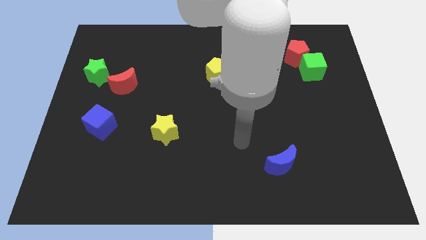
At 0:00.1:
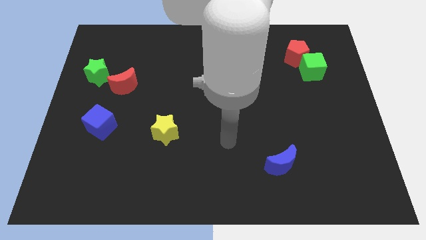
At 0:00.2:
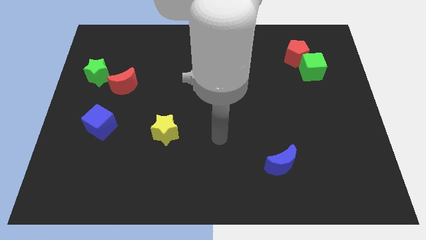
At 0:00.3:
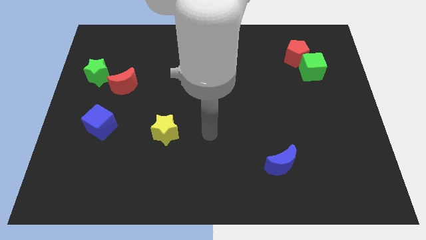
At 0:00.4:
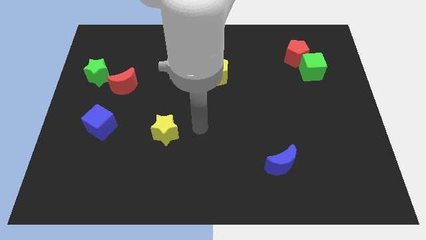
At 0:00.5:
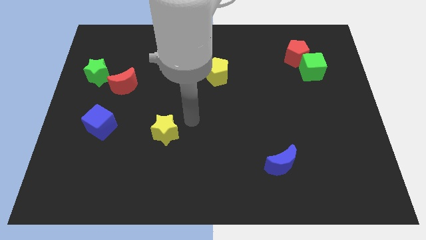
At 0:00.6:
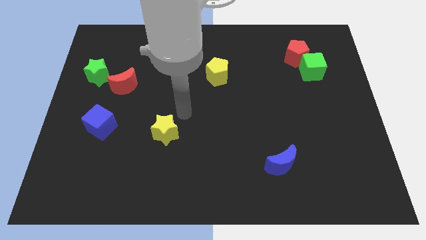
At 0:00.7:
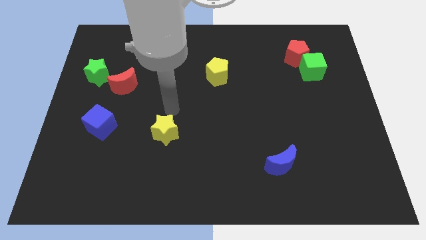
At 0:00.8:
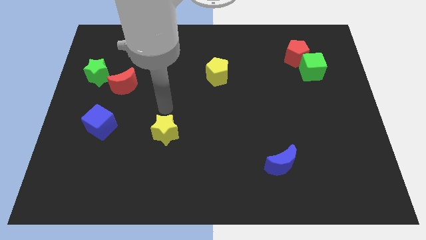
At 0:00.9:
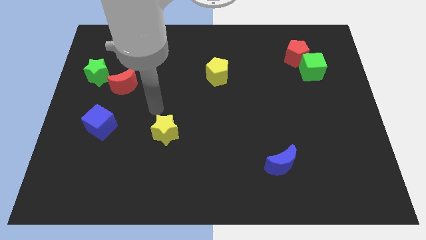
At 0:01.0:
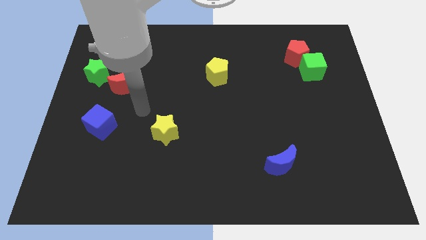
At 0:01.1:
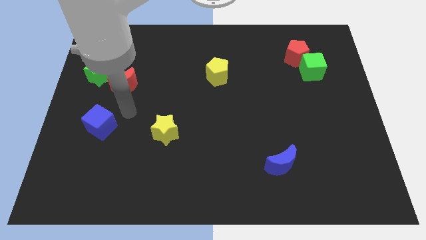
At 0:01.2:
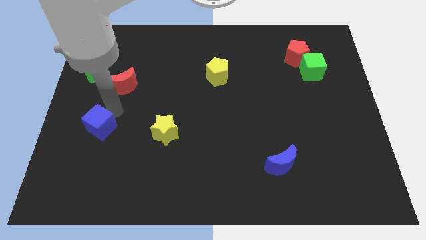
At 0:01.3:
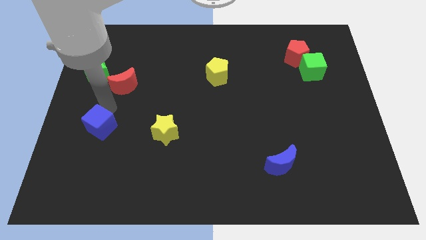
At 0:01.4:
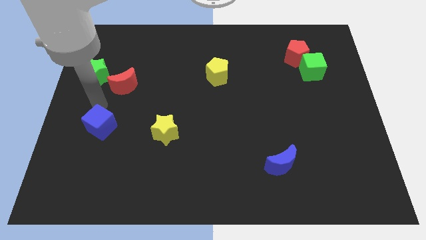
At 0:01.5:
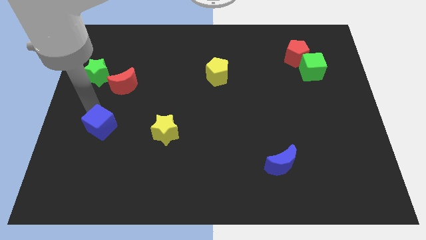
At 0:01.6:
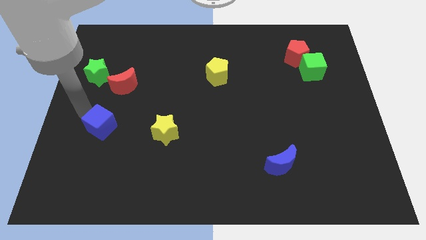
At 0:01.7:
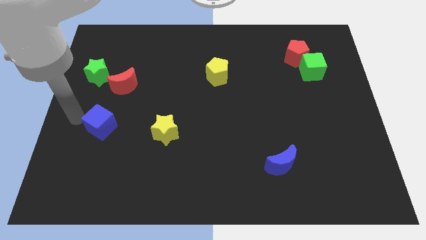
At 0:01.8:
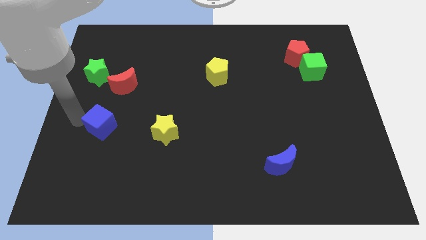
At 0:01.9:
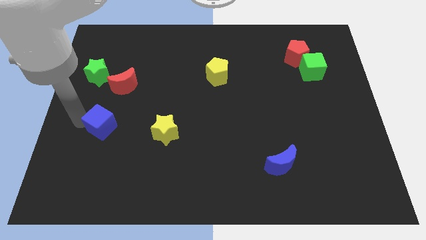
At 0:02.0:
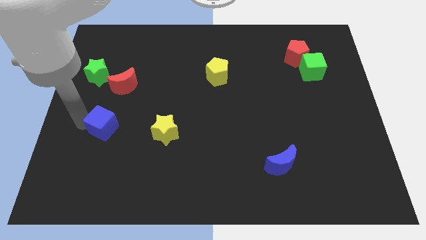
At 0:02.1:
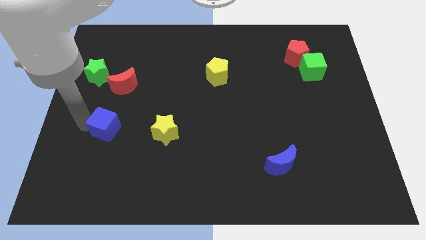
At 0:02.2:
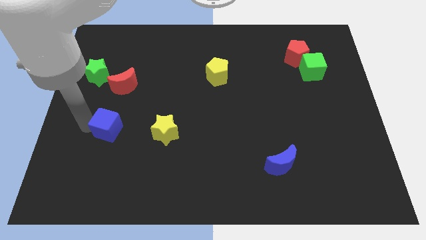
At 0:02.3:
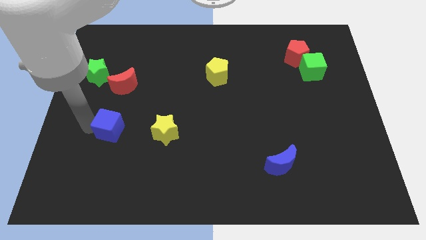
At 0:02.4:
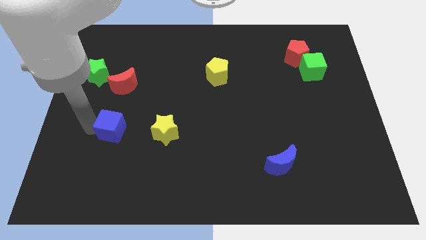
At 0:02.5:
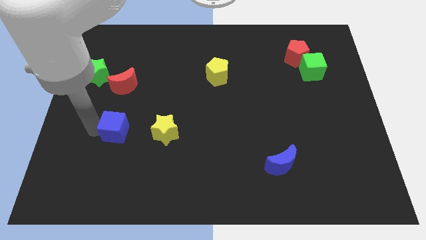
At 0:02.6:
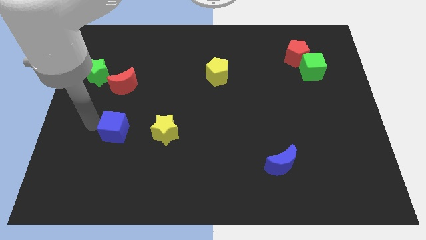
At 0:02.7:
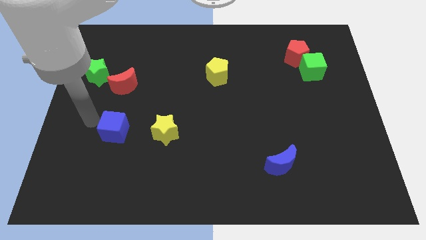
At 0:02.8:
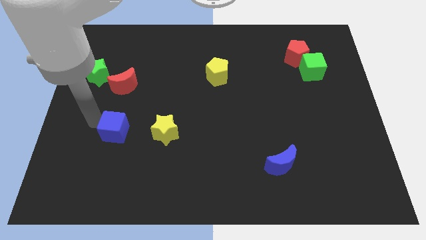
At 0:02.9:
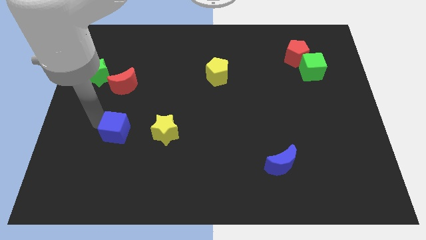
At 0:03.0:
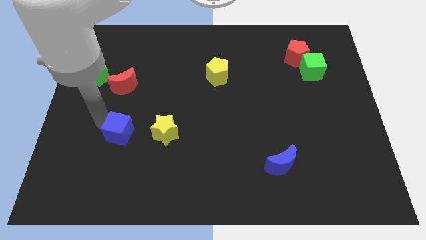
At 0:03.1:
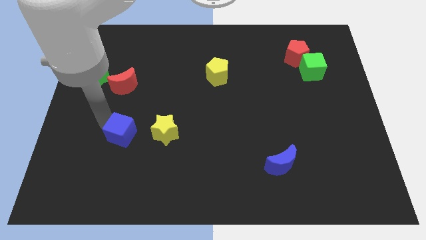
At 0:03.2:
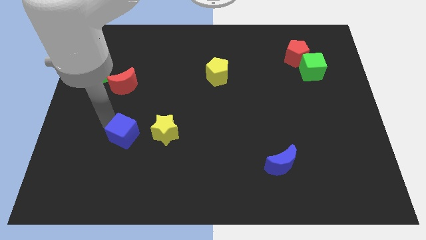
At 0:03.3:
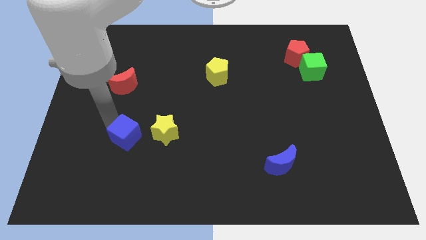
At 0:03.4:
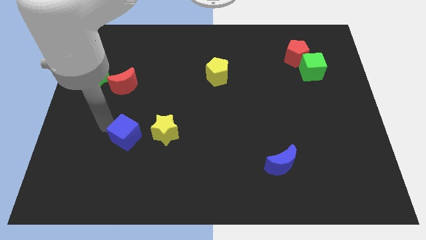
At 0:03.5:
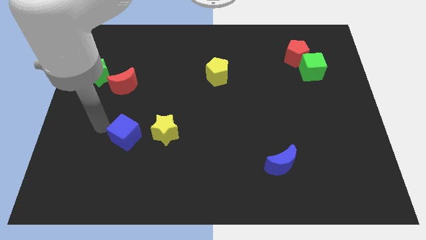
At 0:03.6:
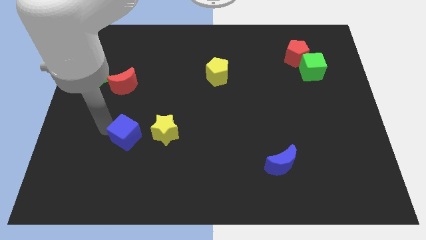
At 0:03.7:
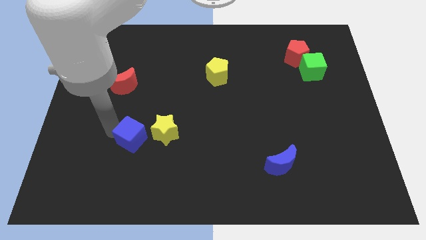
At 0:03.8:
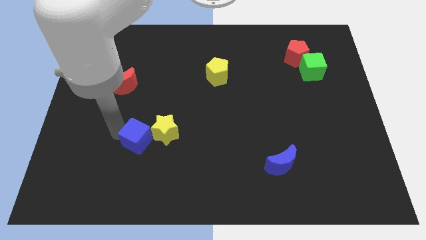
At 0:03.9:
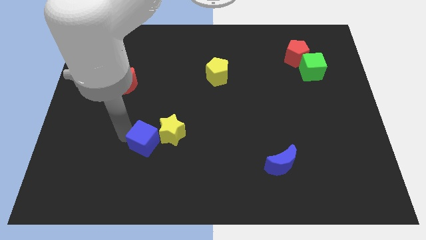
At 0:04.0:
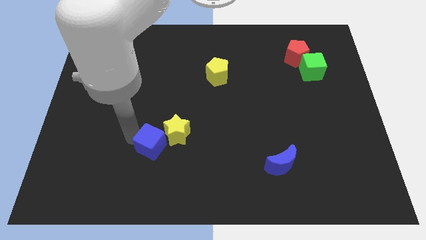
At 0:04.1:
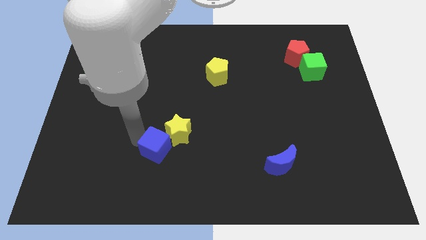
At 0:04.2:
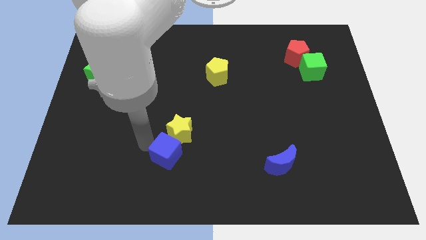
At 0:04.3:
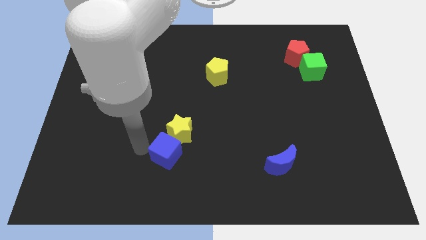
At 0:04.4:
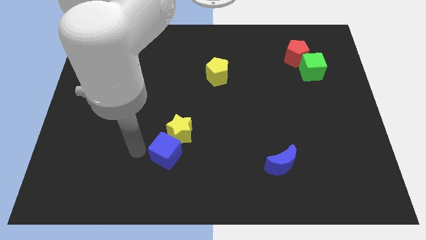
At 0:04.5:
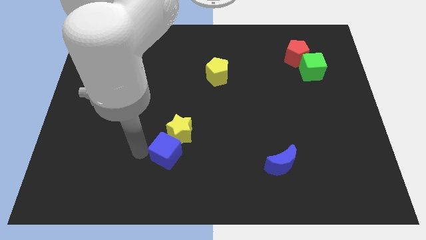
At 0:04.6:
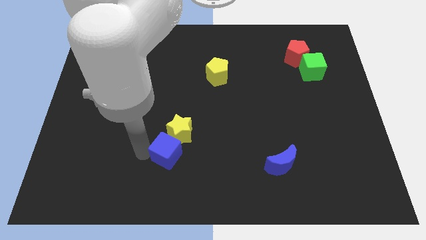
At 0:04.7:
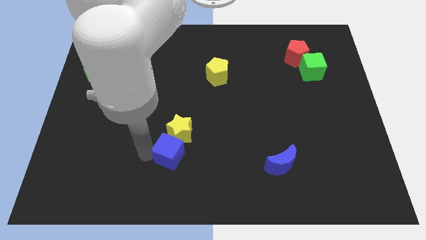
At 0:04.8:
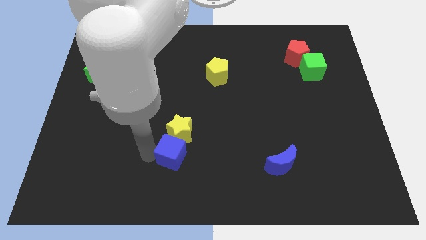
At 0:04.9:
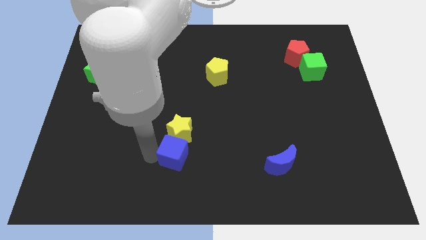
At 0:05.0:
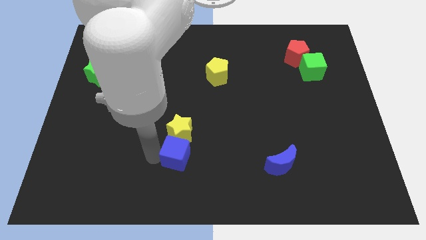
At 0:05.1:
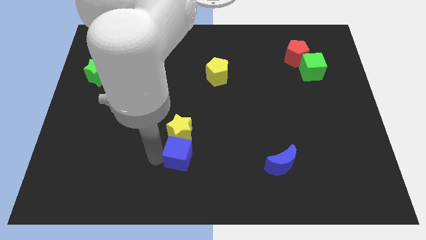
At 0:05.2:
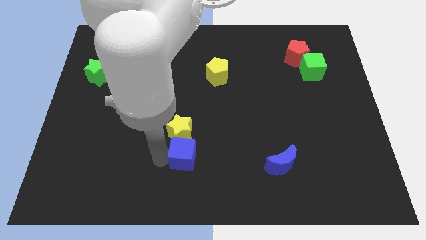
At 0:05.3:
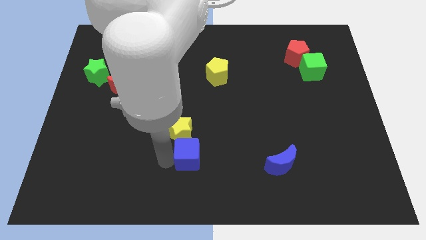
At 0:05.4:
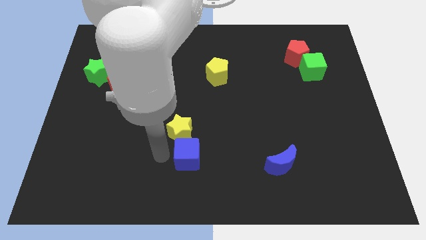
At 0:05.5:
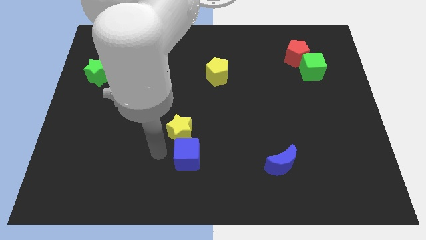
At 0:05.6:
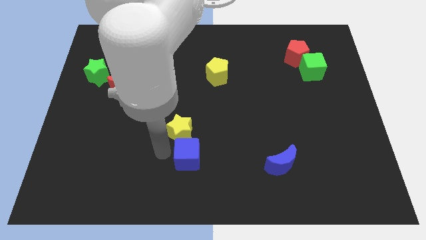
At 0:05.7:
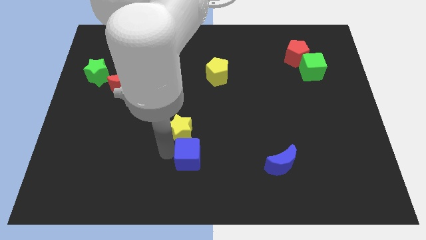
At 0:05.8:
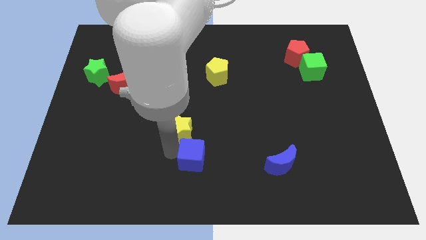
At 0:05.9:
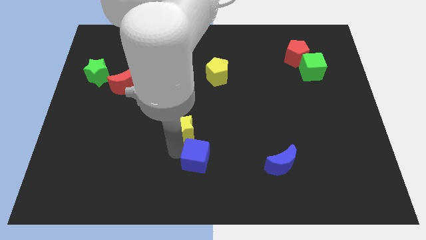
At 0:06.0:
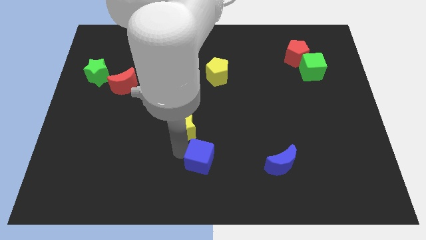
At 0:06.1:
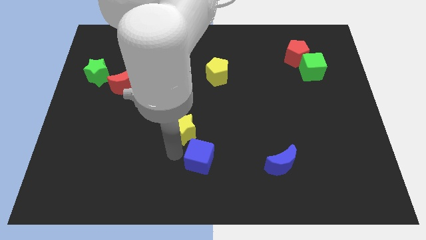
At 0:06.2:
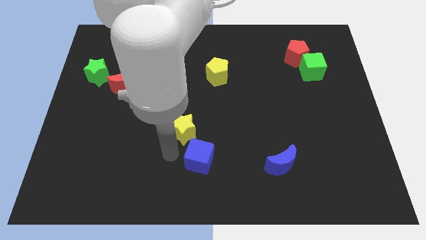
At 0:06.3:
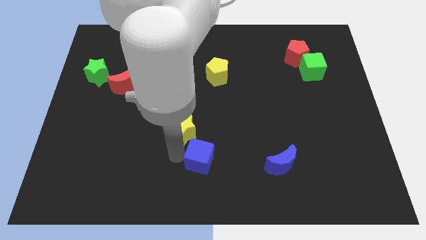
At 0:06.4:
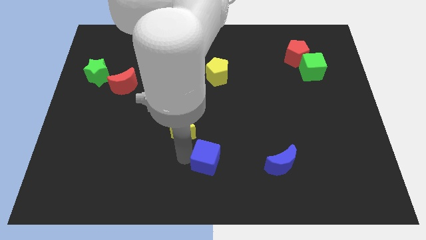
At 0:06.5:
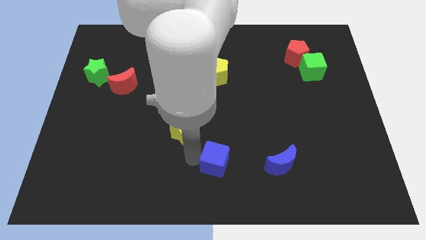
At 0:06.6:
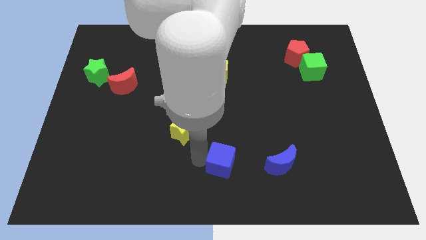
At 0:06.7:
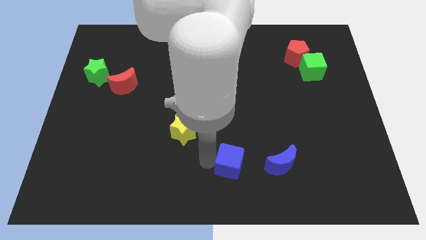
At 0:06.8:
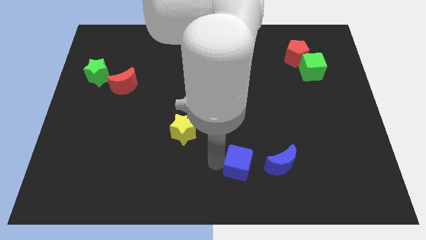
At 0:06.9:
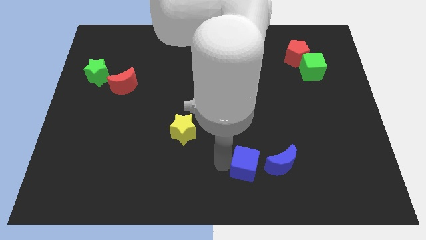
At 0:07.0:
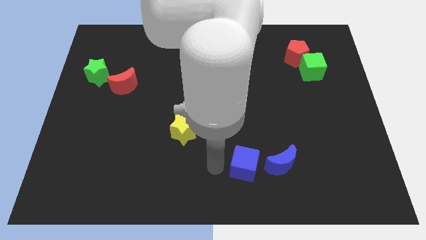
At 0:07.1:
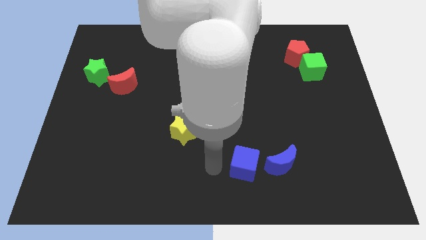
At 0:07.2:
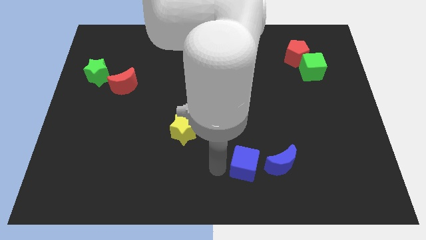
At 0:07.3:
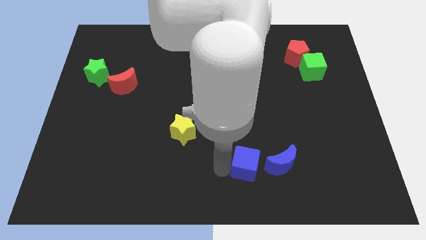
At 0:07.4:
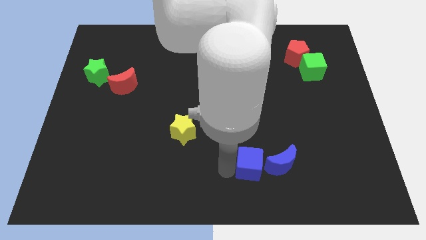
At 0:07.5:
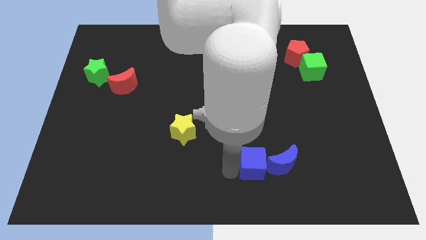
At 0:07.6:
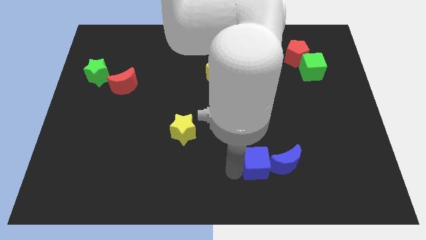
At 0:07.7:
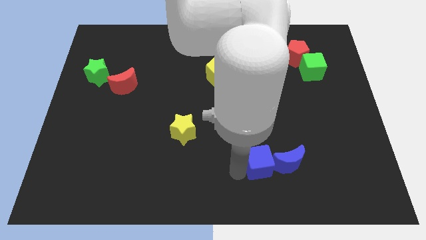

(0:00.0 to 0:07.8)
put the blue cube close to the blue moon
